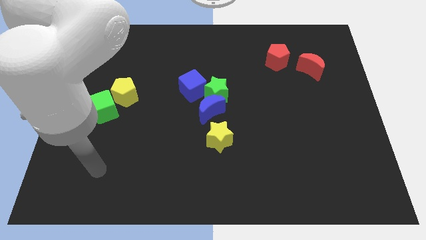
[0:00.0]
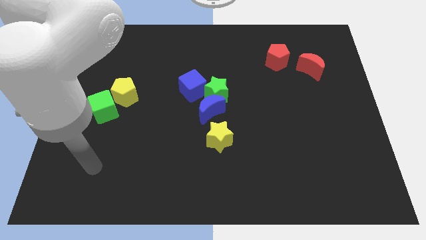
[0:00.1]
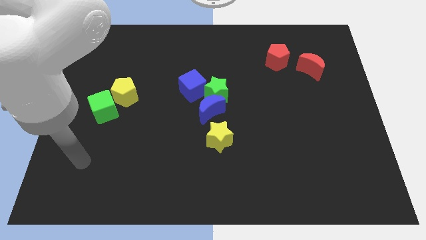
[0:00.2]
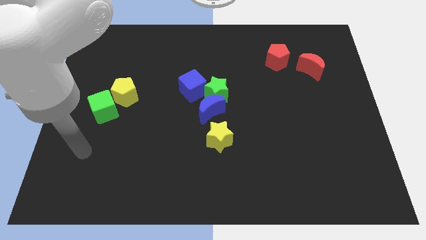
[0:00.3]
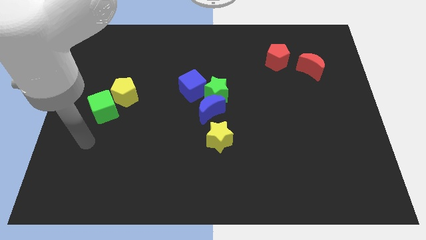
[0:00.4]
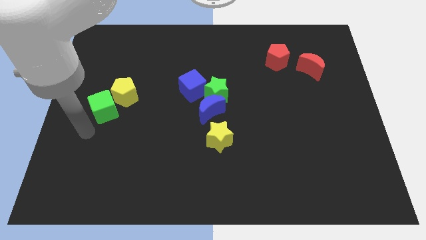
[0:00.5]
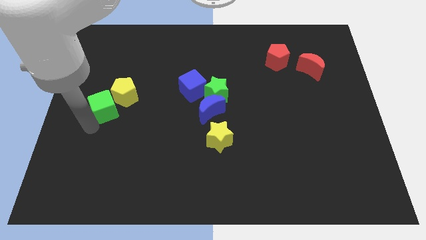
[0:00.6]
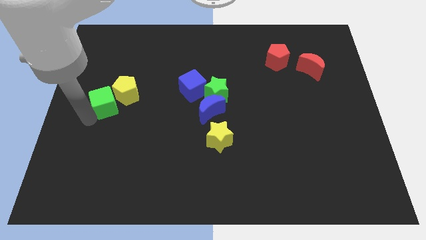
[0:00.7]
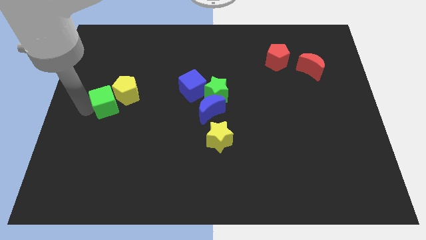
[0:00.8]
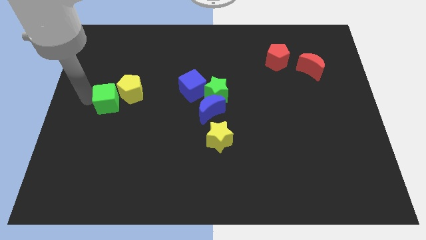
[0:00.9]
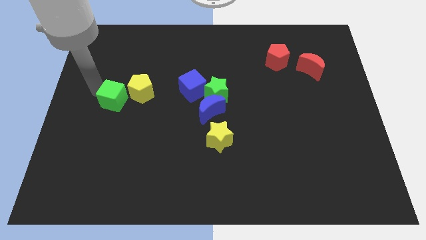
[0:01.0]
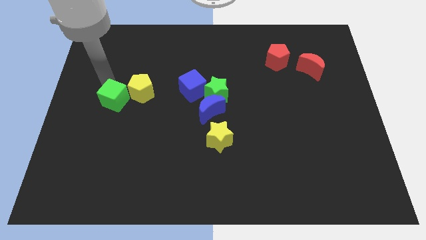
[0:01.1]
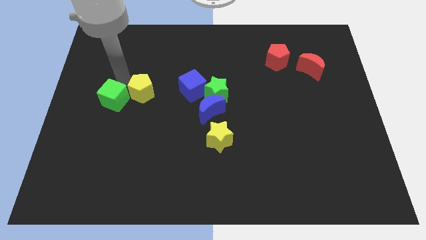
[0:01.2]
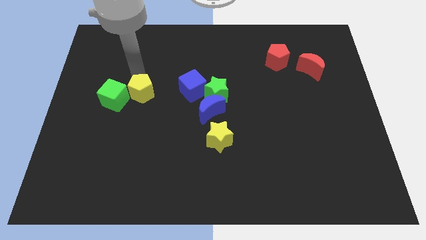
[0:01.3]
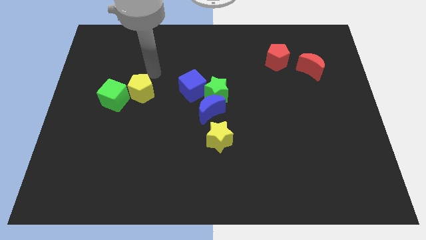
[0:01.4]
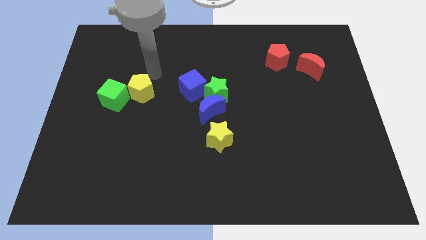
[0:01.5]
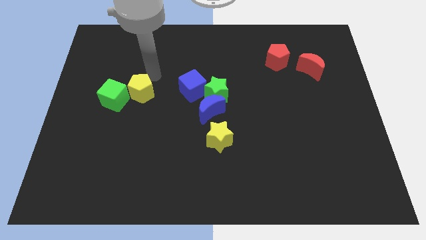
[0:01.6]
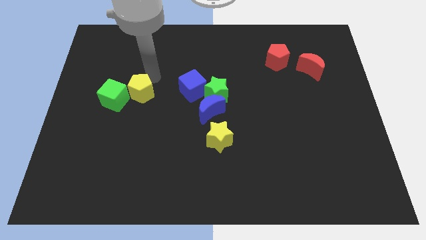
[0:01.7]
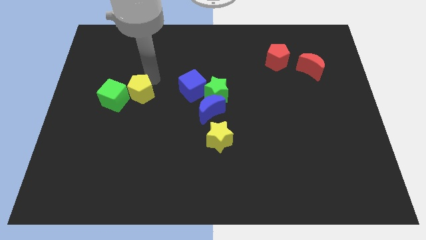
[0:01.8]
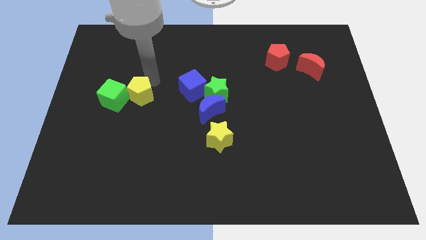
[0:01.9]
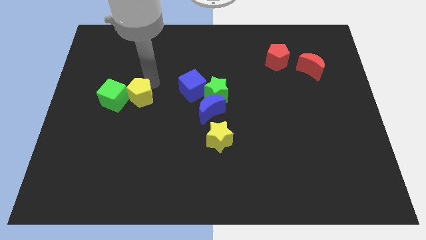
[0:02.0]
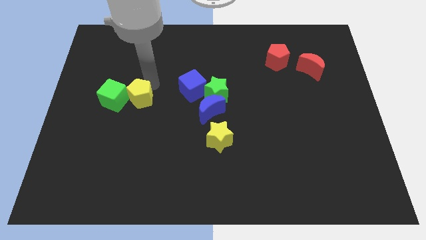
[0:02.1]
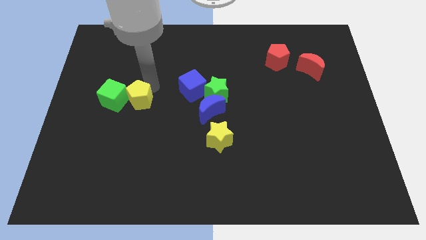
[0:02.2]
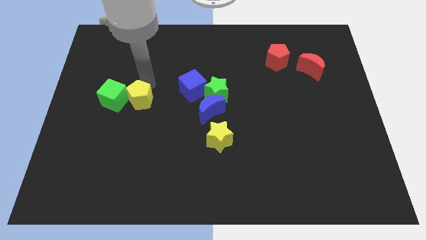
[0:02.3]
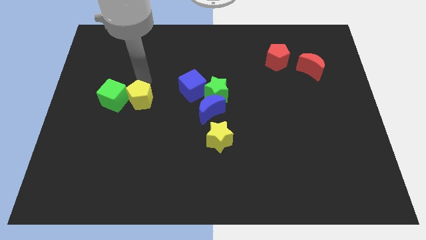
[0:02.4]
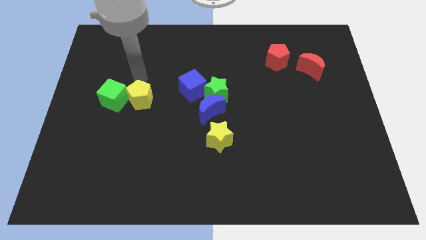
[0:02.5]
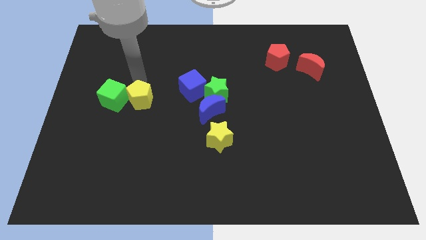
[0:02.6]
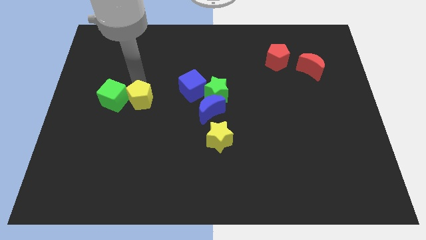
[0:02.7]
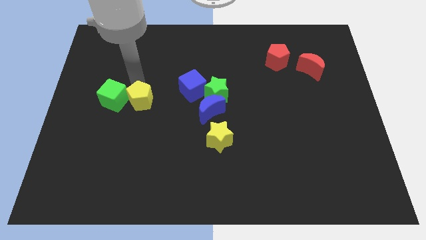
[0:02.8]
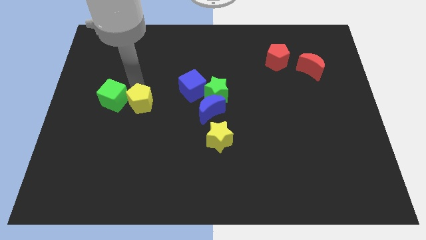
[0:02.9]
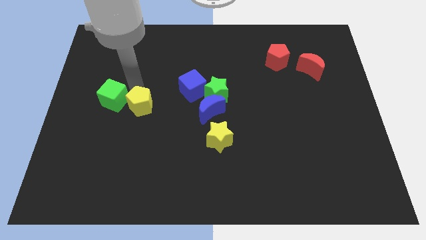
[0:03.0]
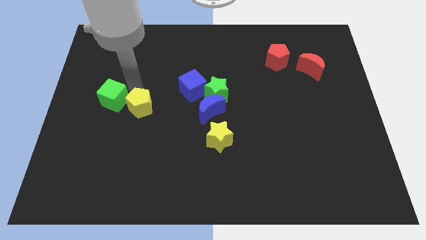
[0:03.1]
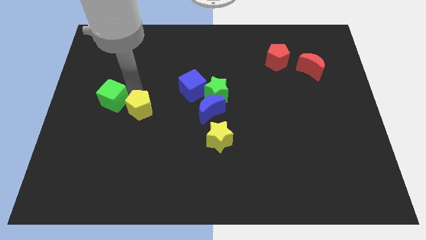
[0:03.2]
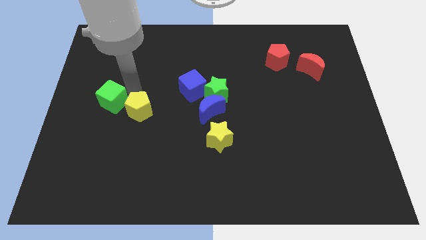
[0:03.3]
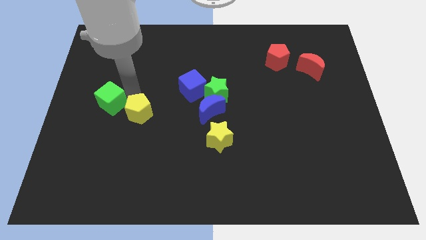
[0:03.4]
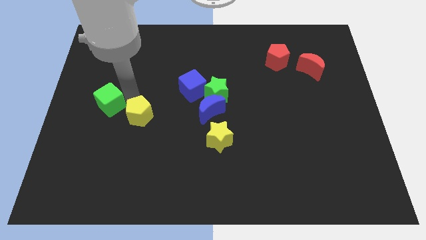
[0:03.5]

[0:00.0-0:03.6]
slightly push the yellow pentagon diagonally downwards and to the right

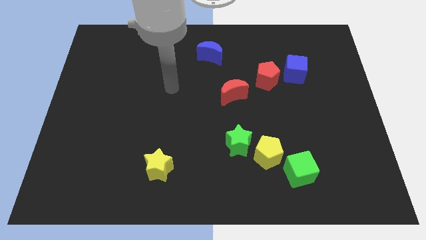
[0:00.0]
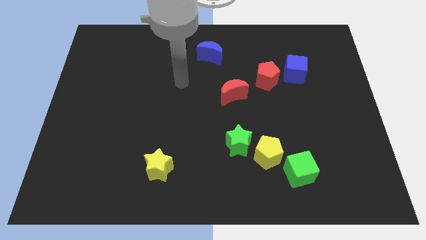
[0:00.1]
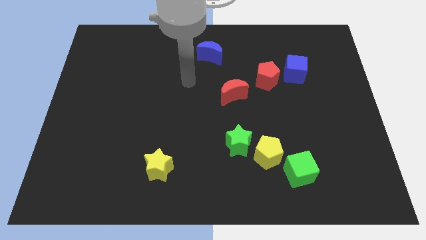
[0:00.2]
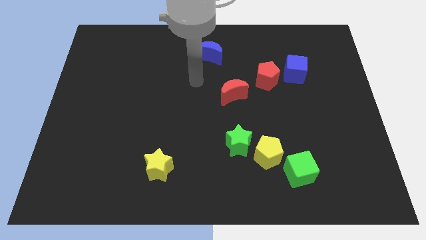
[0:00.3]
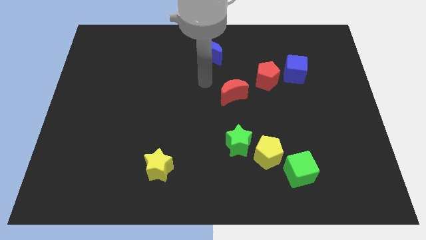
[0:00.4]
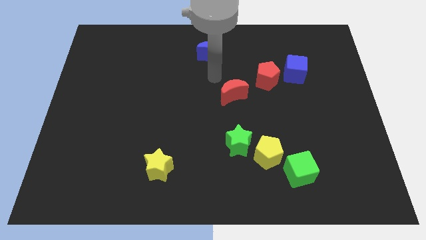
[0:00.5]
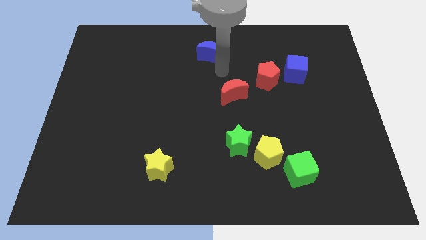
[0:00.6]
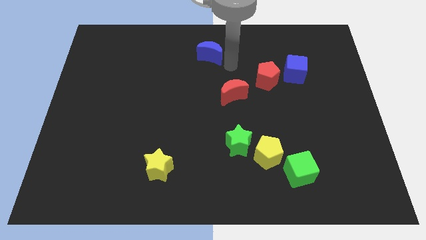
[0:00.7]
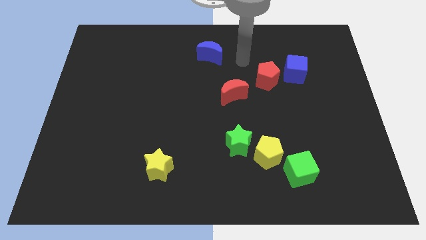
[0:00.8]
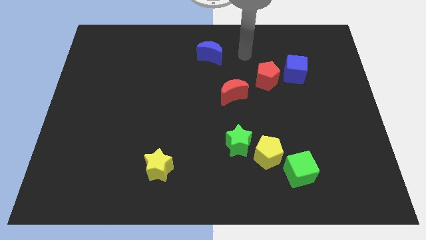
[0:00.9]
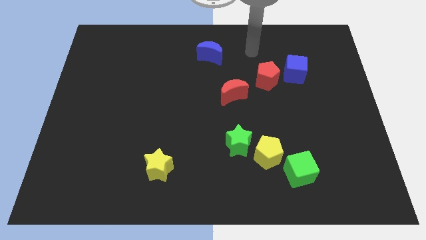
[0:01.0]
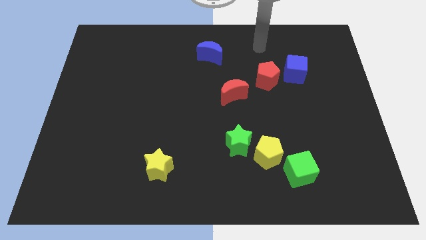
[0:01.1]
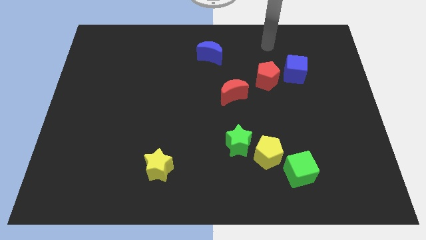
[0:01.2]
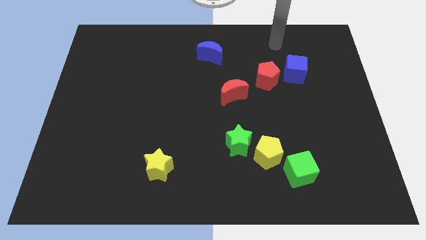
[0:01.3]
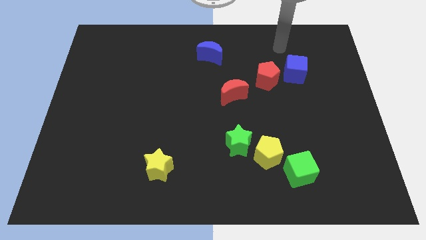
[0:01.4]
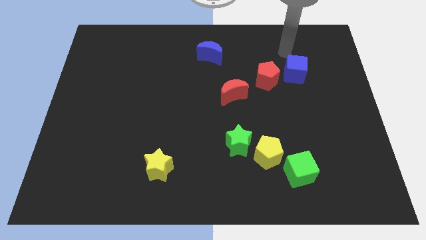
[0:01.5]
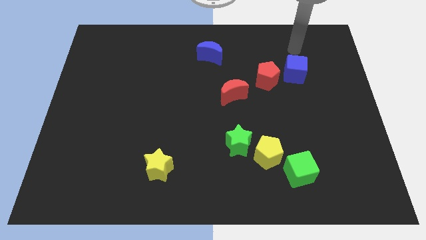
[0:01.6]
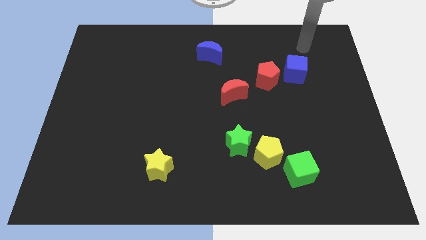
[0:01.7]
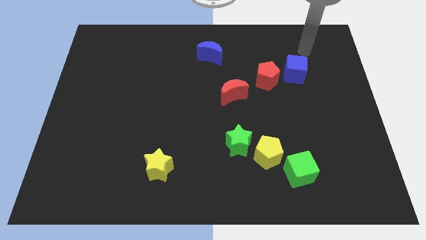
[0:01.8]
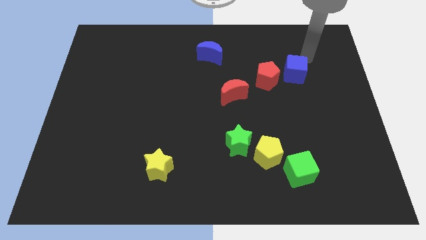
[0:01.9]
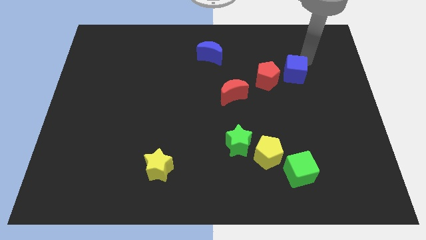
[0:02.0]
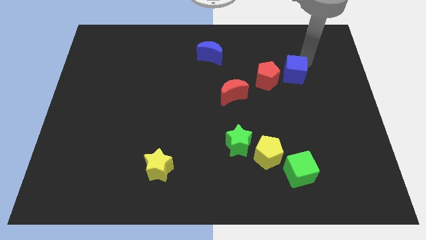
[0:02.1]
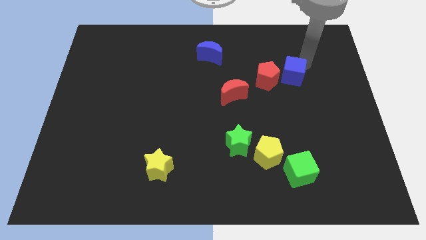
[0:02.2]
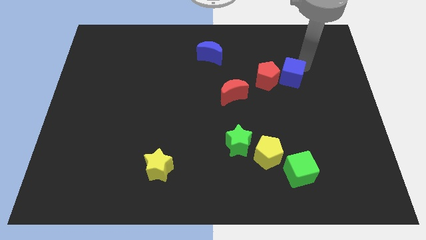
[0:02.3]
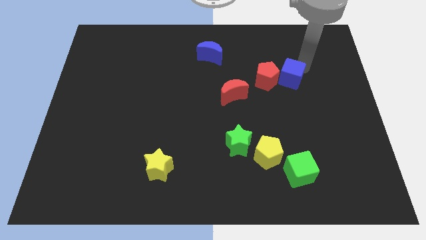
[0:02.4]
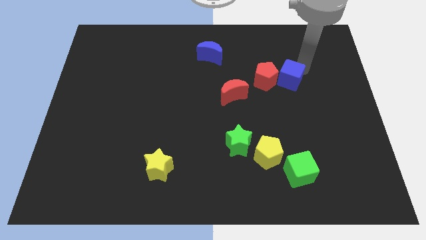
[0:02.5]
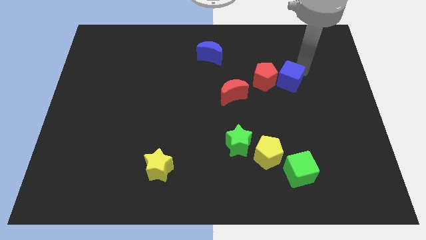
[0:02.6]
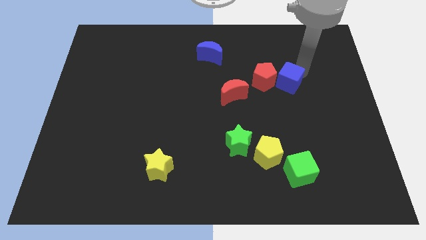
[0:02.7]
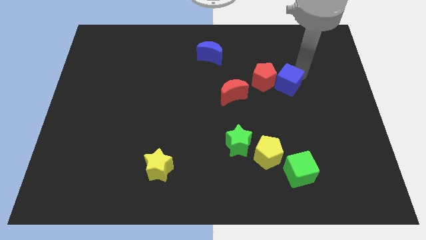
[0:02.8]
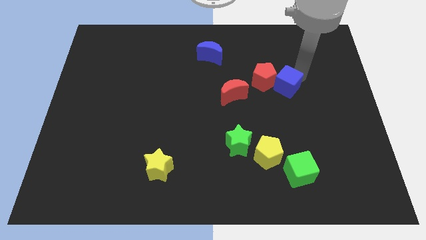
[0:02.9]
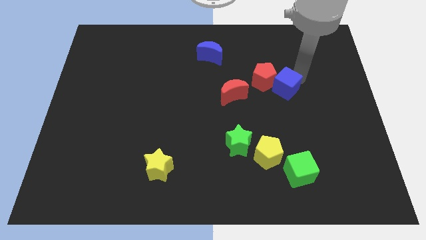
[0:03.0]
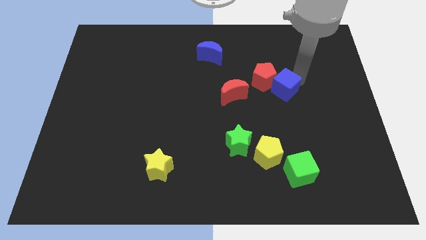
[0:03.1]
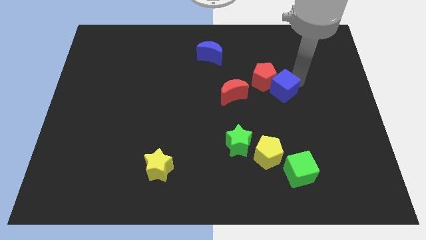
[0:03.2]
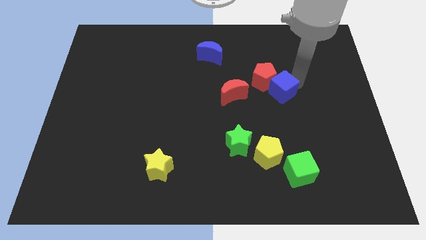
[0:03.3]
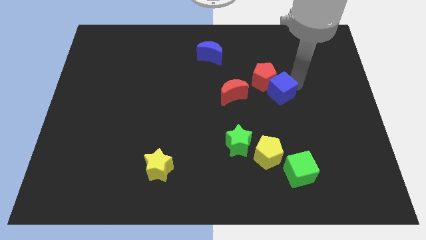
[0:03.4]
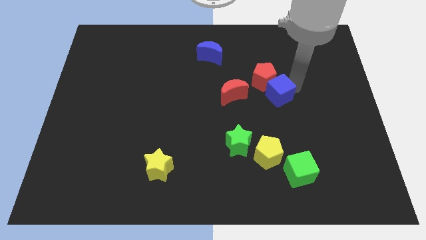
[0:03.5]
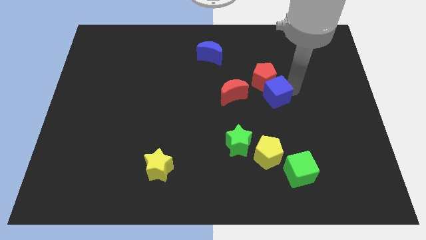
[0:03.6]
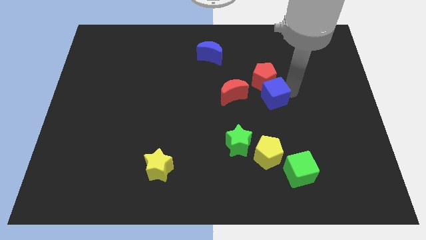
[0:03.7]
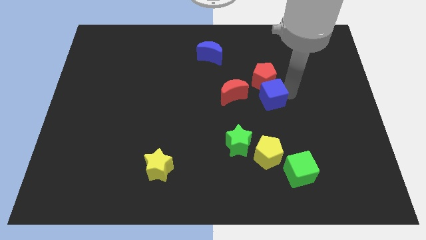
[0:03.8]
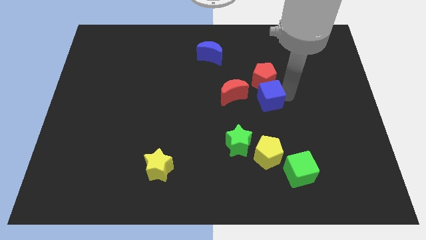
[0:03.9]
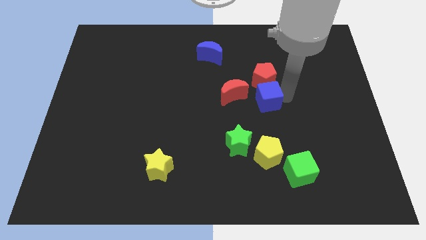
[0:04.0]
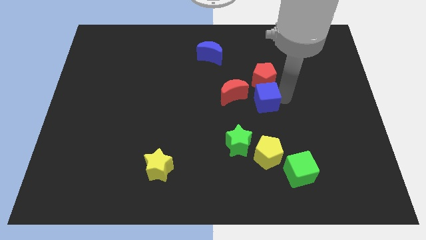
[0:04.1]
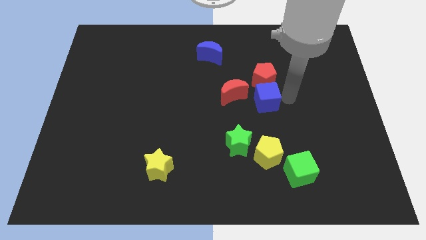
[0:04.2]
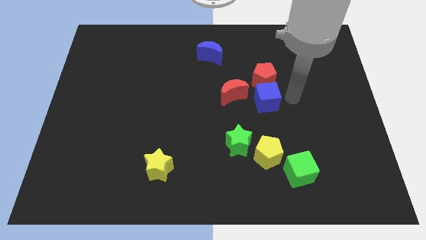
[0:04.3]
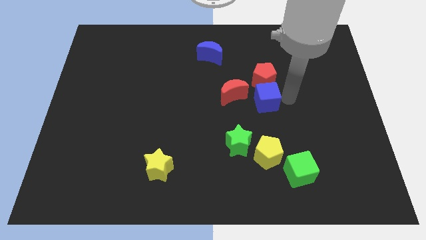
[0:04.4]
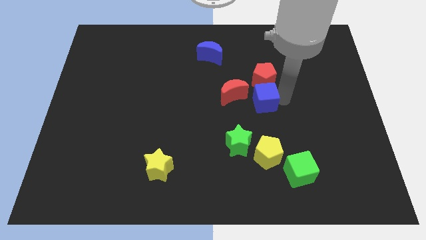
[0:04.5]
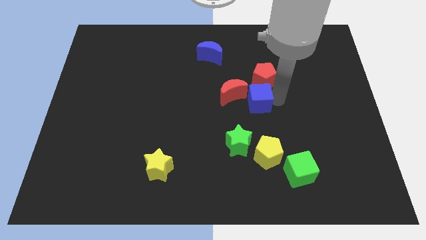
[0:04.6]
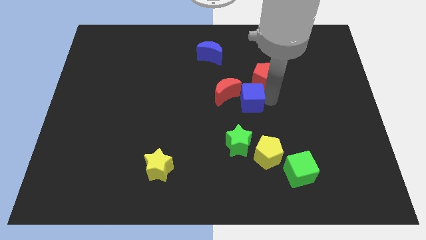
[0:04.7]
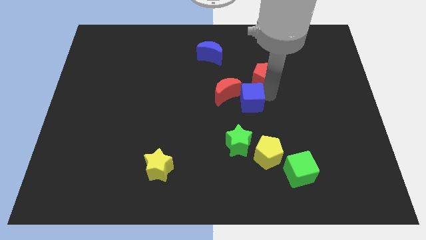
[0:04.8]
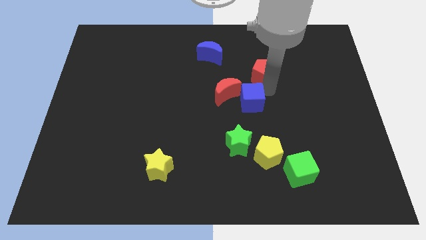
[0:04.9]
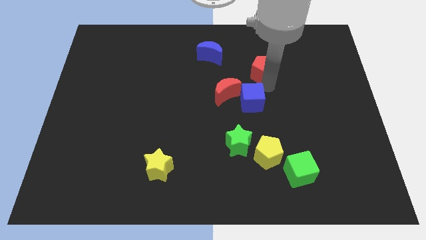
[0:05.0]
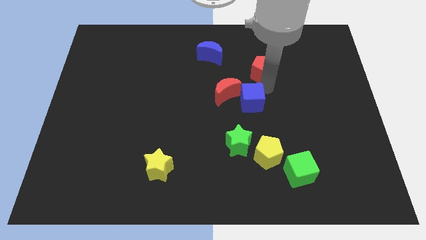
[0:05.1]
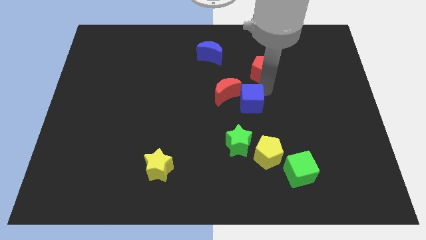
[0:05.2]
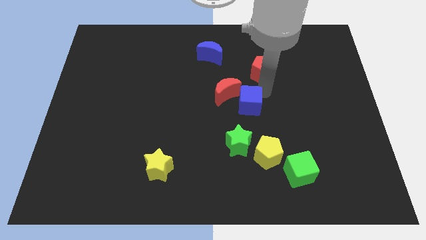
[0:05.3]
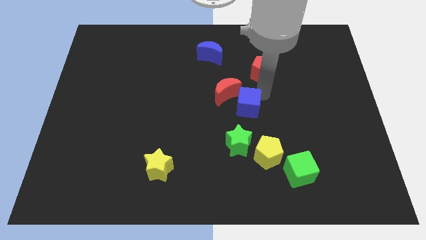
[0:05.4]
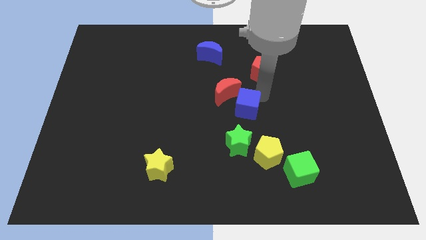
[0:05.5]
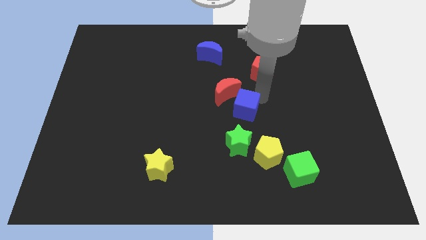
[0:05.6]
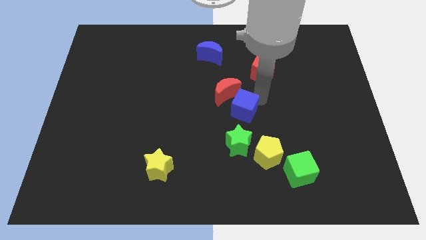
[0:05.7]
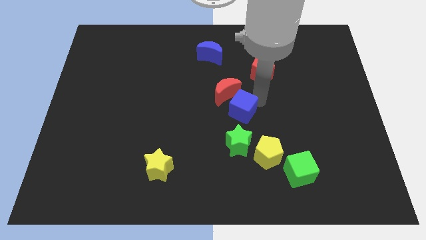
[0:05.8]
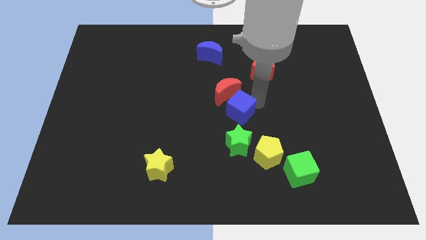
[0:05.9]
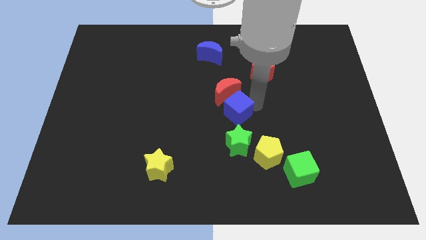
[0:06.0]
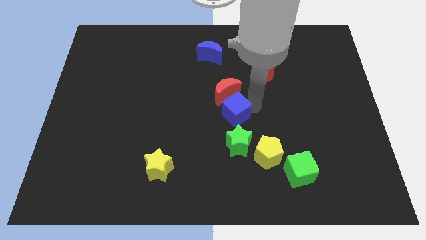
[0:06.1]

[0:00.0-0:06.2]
slide the blue cube diagonally downwards and left
